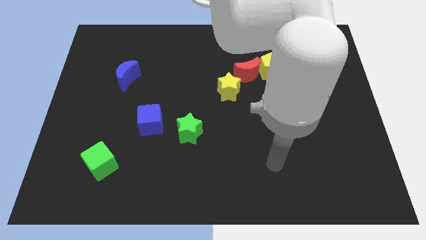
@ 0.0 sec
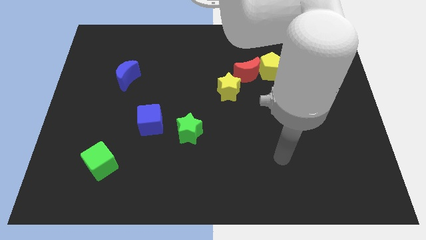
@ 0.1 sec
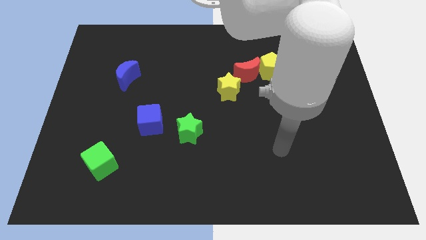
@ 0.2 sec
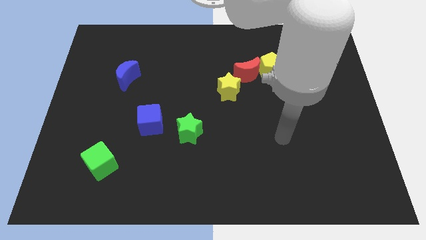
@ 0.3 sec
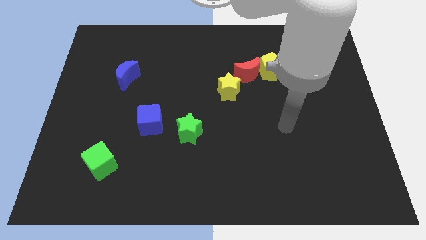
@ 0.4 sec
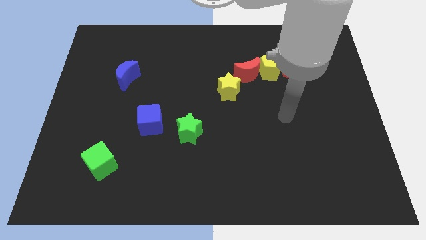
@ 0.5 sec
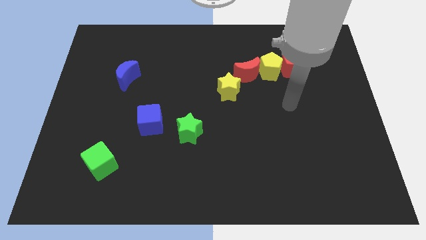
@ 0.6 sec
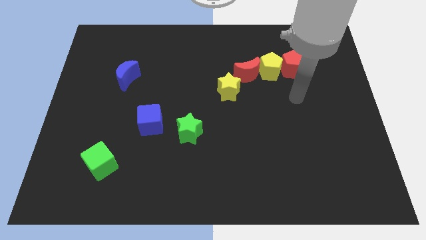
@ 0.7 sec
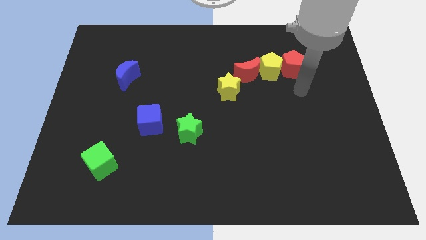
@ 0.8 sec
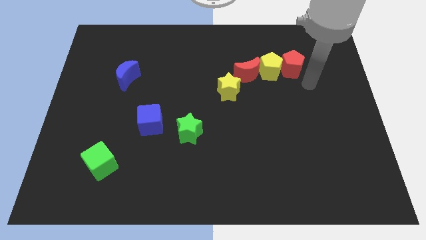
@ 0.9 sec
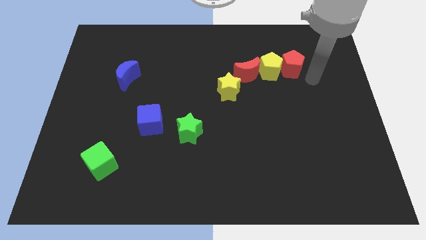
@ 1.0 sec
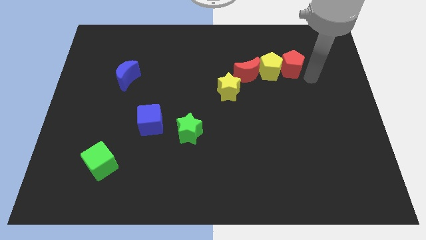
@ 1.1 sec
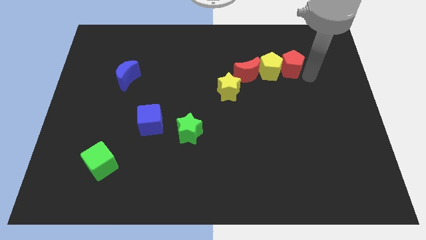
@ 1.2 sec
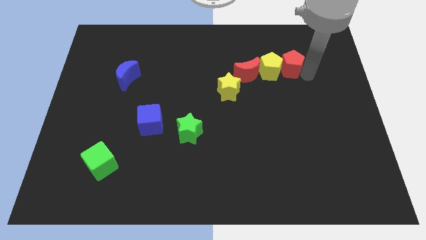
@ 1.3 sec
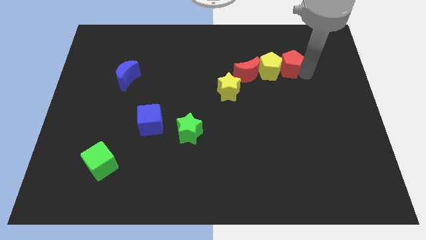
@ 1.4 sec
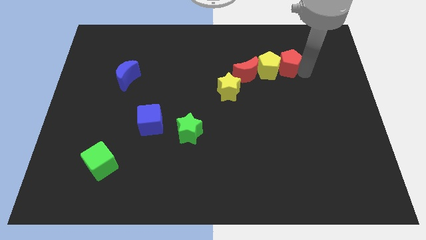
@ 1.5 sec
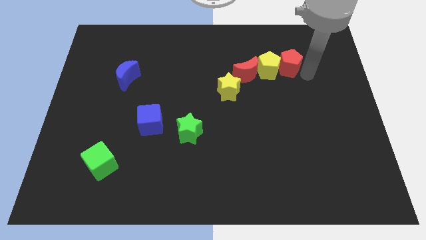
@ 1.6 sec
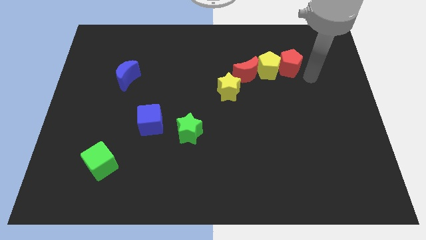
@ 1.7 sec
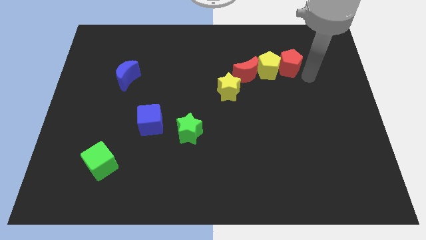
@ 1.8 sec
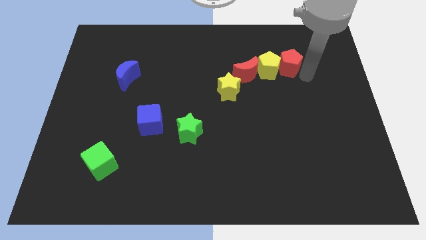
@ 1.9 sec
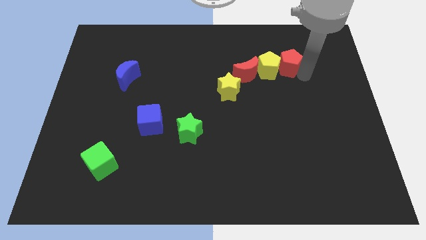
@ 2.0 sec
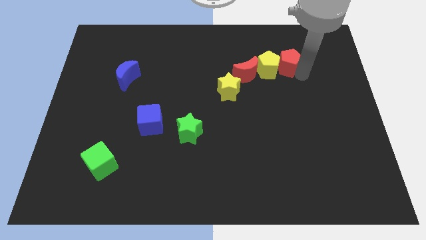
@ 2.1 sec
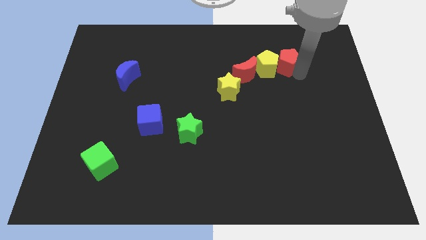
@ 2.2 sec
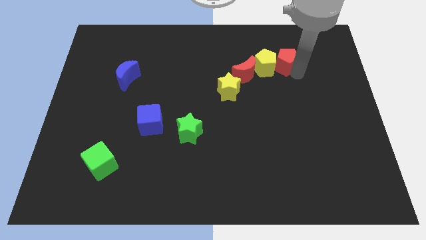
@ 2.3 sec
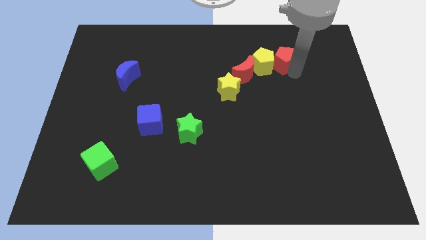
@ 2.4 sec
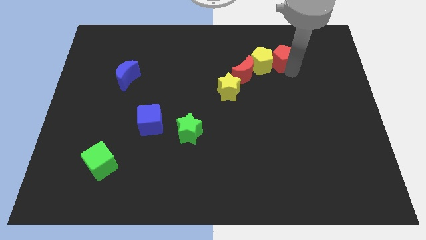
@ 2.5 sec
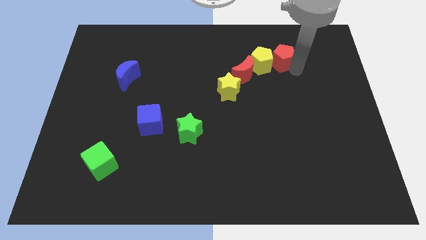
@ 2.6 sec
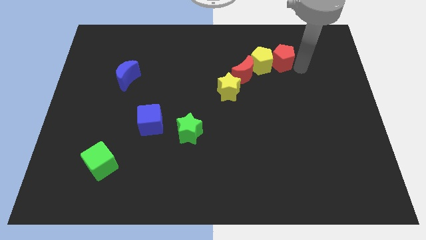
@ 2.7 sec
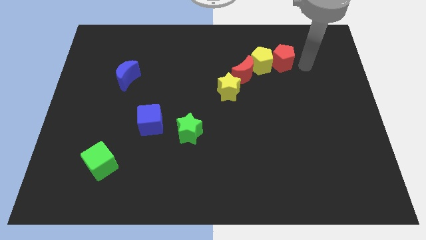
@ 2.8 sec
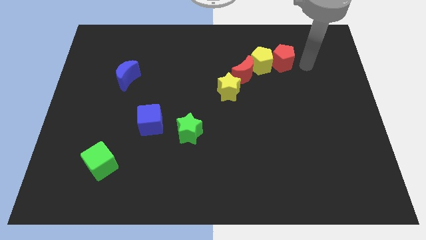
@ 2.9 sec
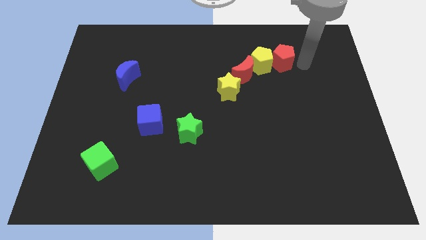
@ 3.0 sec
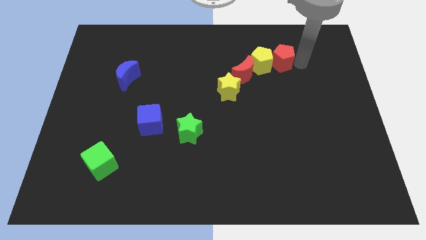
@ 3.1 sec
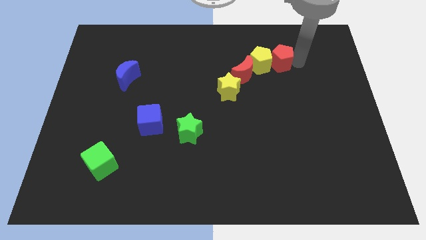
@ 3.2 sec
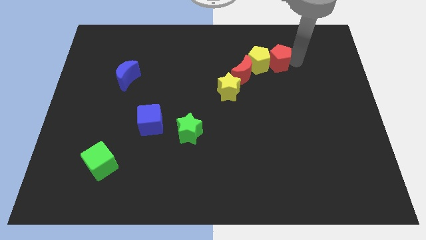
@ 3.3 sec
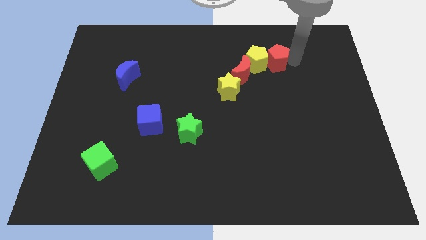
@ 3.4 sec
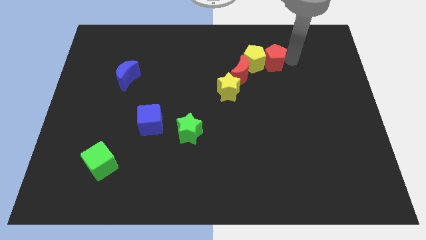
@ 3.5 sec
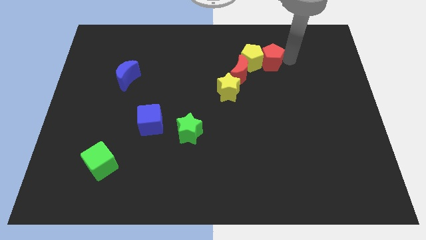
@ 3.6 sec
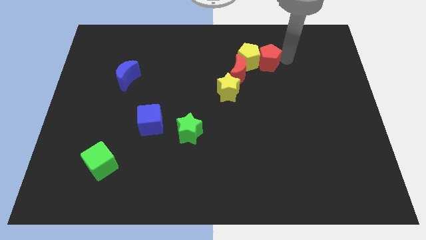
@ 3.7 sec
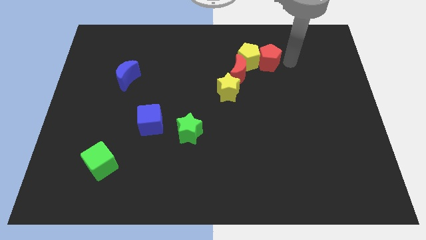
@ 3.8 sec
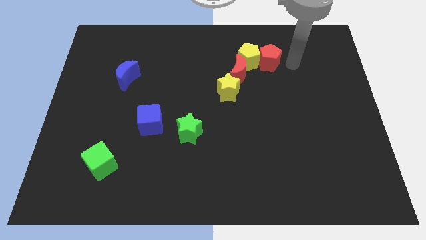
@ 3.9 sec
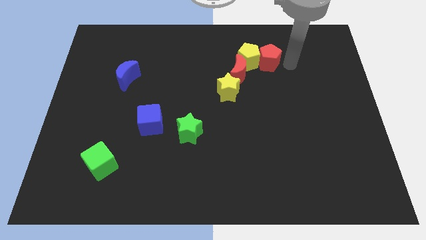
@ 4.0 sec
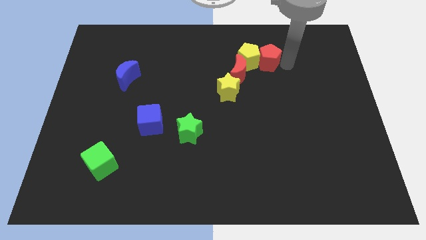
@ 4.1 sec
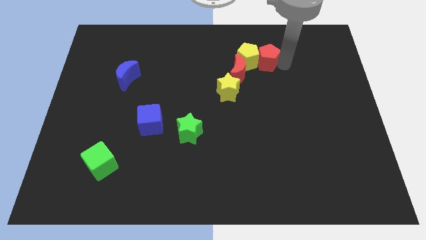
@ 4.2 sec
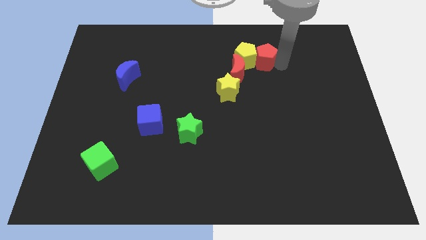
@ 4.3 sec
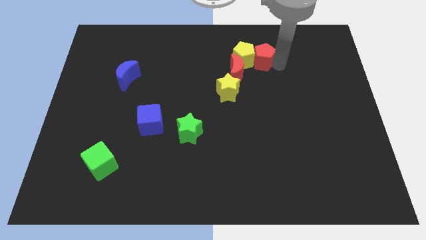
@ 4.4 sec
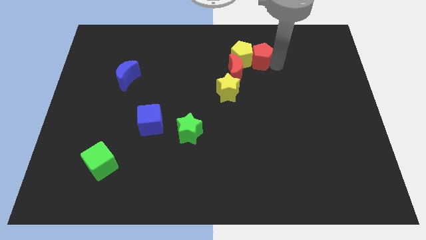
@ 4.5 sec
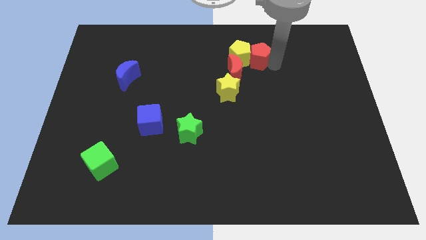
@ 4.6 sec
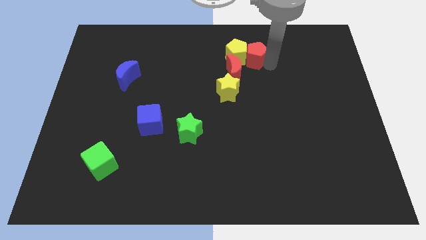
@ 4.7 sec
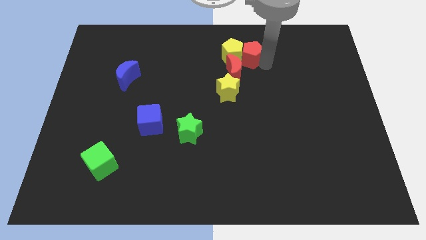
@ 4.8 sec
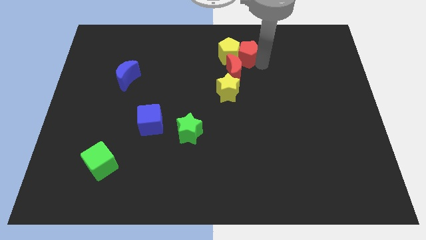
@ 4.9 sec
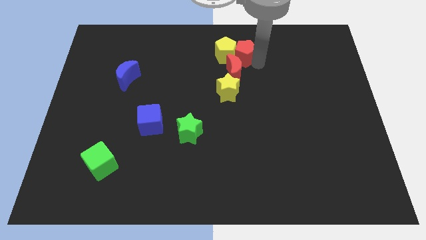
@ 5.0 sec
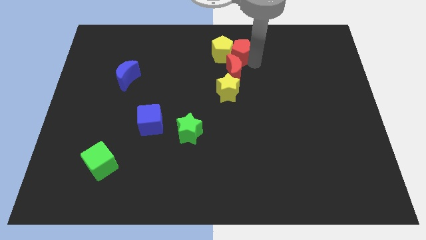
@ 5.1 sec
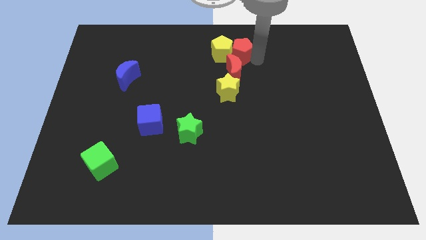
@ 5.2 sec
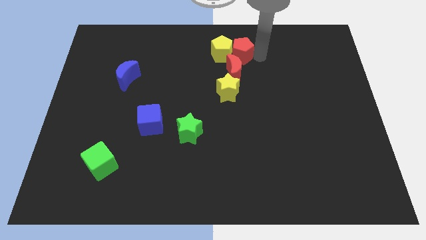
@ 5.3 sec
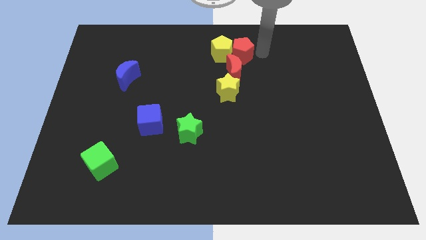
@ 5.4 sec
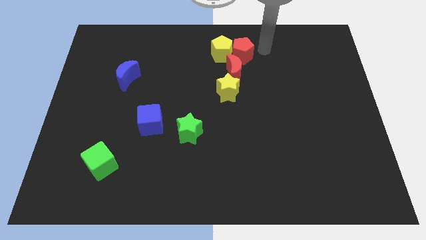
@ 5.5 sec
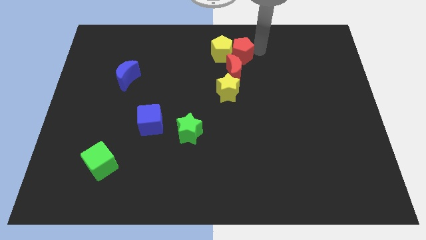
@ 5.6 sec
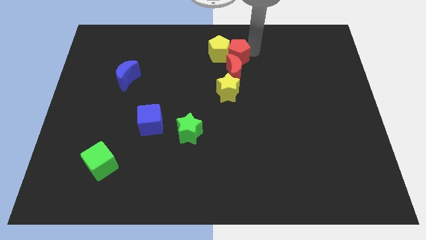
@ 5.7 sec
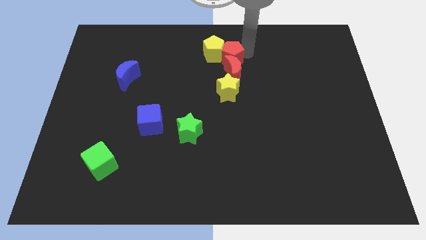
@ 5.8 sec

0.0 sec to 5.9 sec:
slide the red pentagon diagonally up and to the left of the red moon
